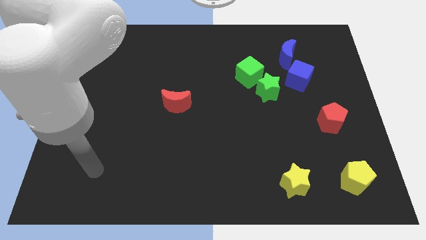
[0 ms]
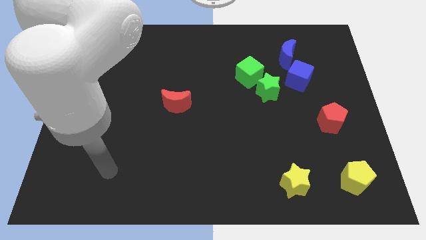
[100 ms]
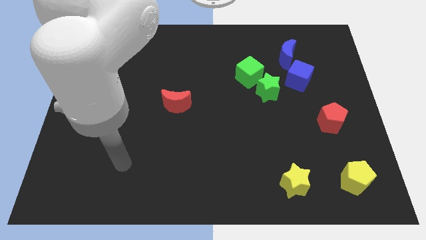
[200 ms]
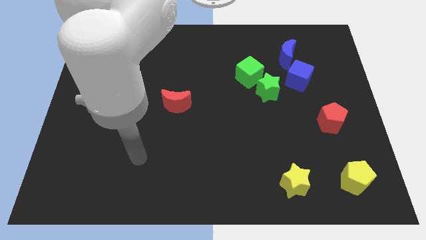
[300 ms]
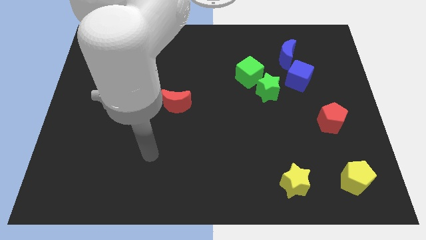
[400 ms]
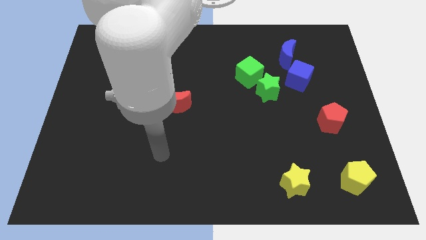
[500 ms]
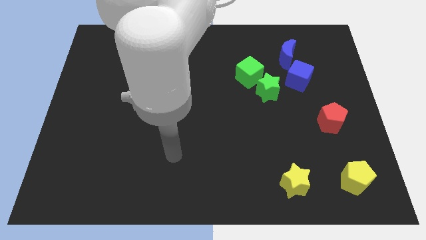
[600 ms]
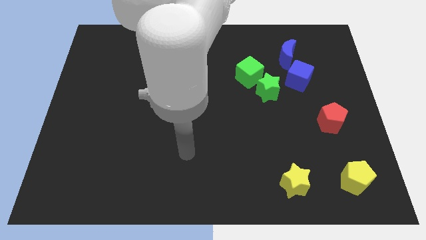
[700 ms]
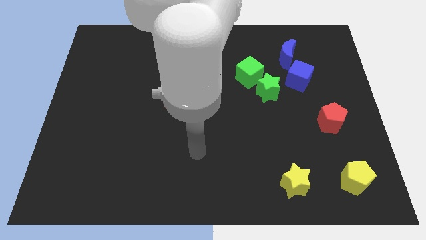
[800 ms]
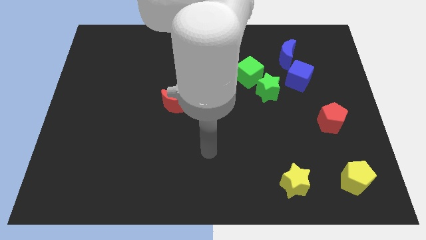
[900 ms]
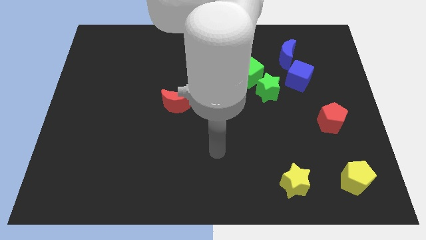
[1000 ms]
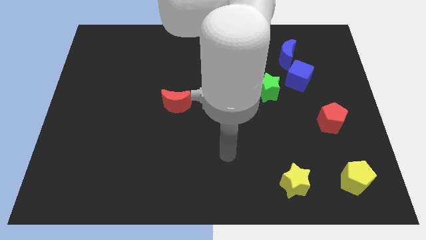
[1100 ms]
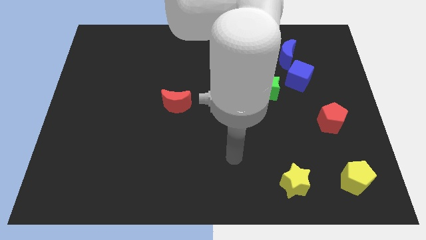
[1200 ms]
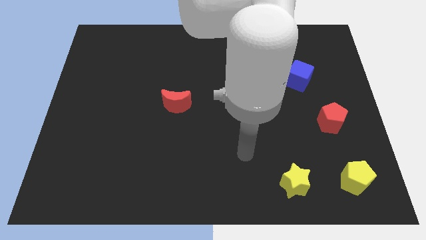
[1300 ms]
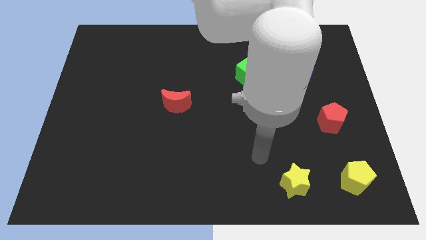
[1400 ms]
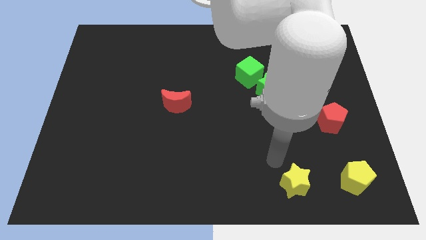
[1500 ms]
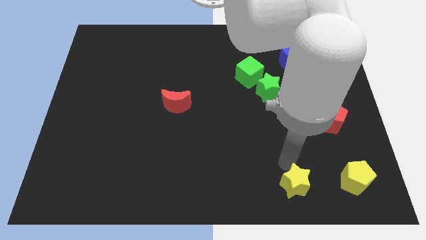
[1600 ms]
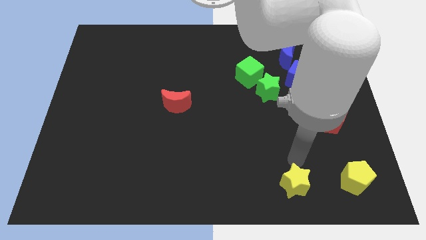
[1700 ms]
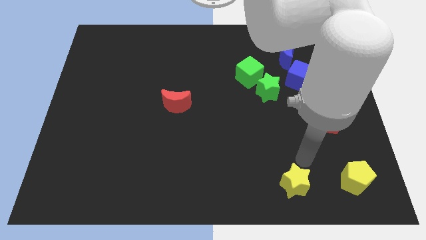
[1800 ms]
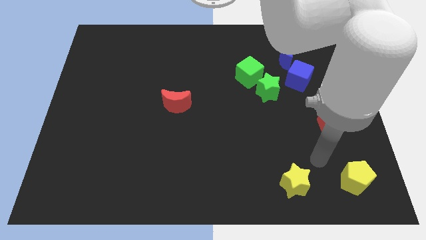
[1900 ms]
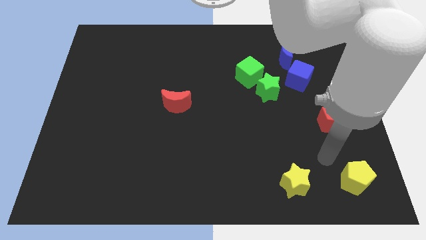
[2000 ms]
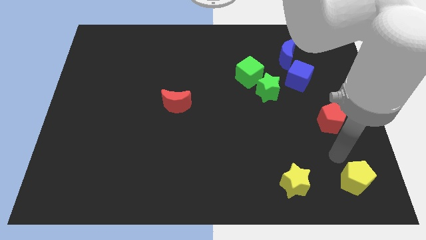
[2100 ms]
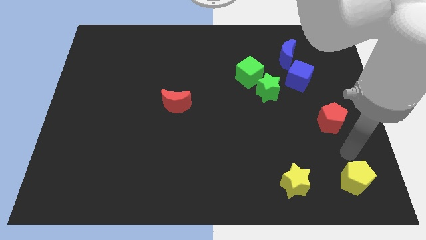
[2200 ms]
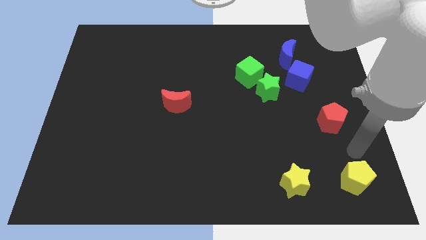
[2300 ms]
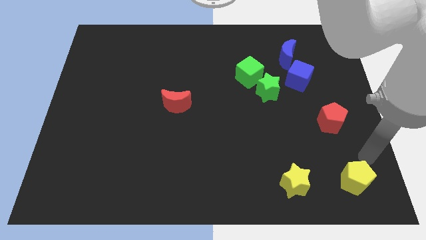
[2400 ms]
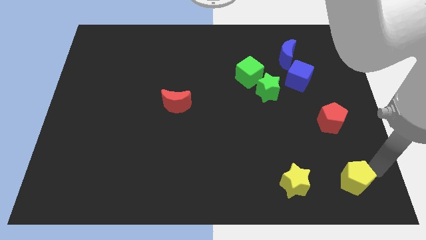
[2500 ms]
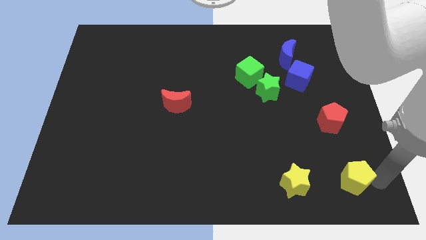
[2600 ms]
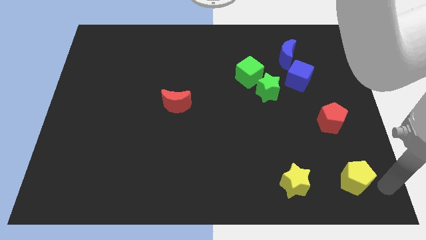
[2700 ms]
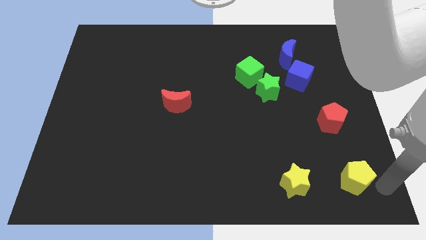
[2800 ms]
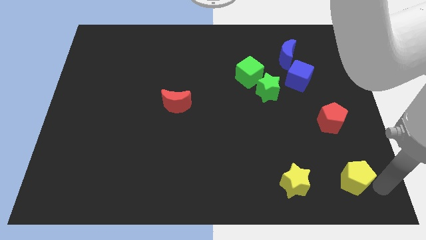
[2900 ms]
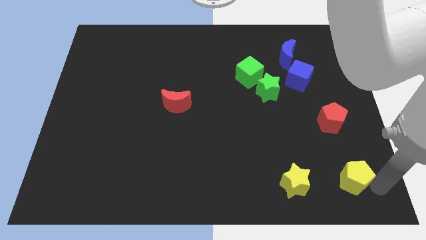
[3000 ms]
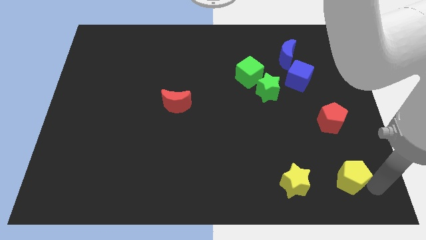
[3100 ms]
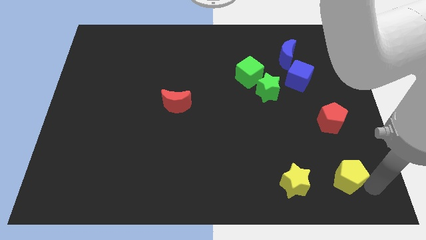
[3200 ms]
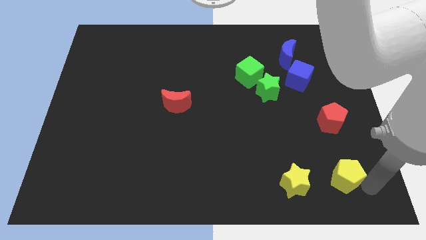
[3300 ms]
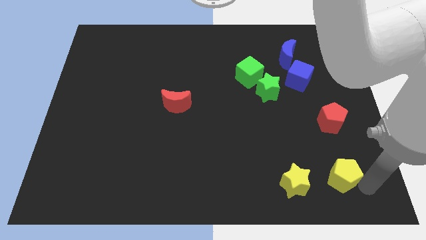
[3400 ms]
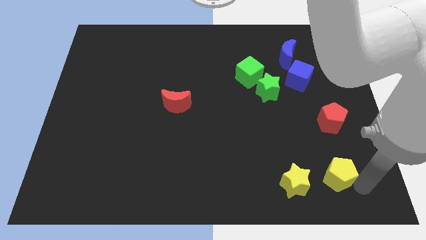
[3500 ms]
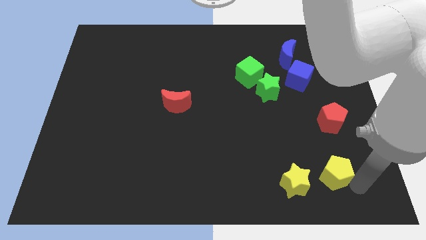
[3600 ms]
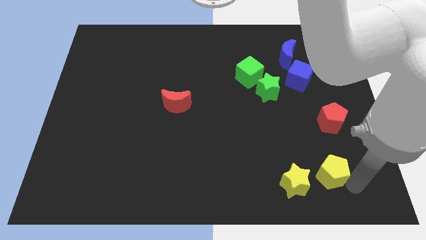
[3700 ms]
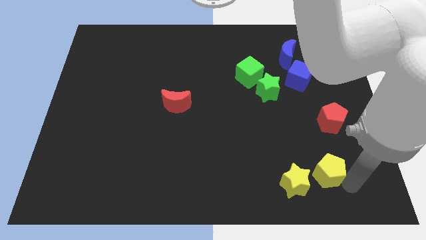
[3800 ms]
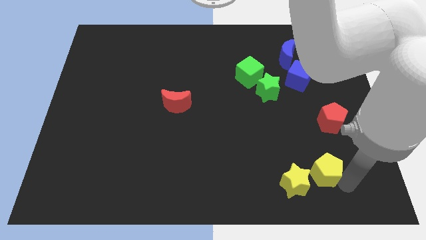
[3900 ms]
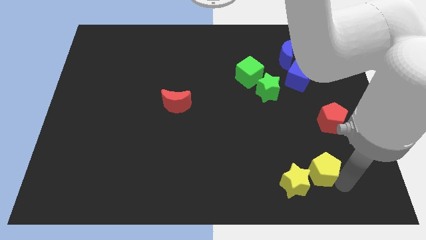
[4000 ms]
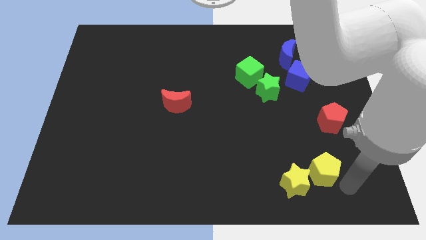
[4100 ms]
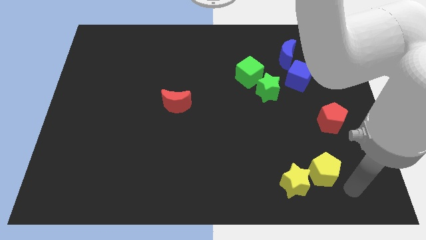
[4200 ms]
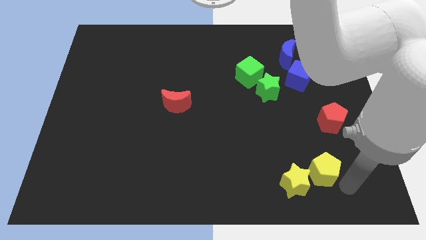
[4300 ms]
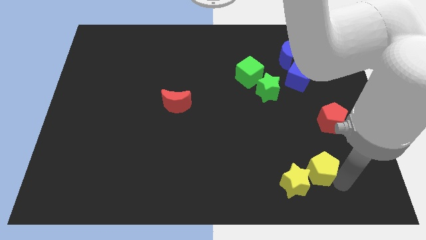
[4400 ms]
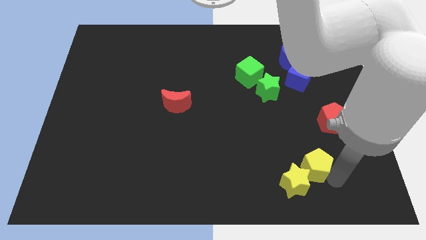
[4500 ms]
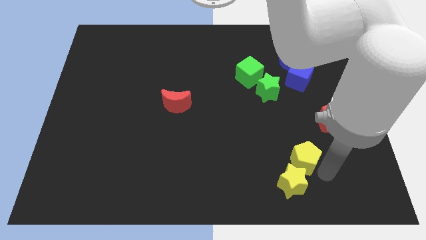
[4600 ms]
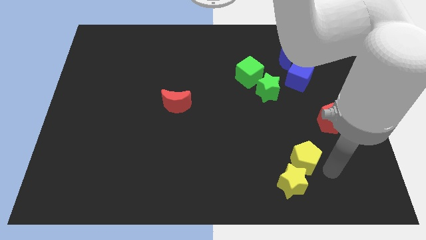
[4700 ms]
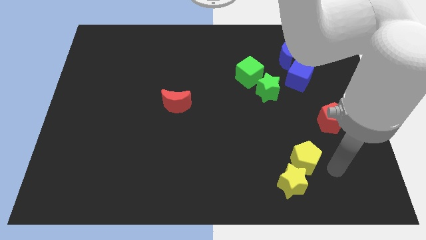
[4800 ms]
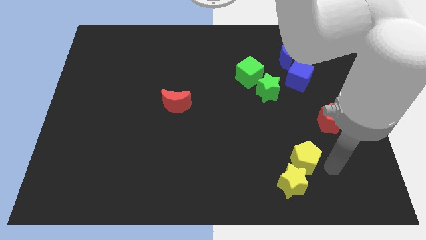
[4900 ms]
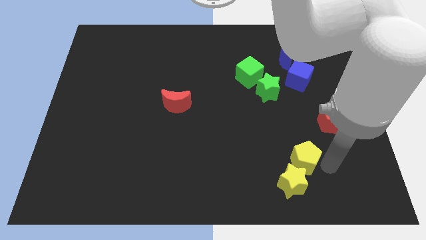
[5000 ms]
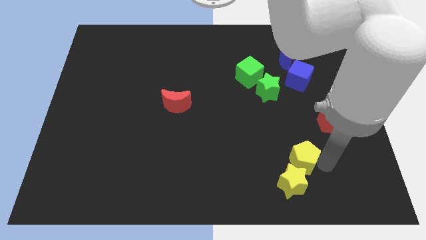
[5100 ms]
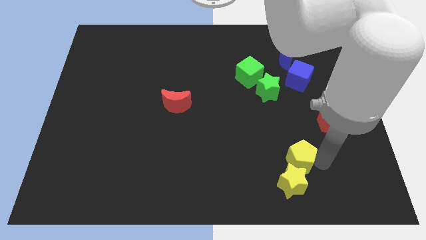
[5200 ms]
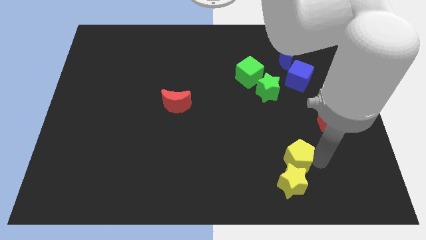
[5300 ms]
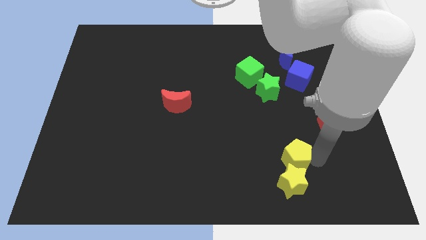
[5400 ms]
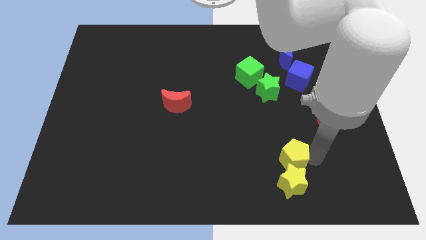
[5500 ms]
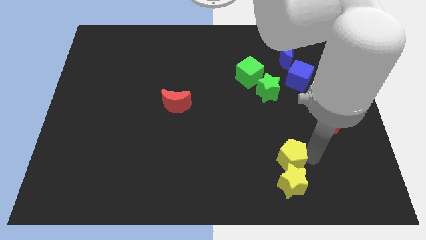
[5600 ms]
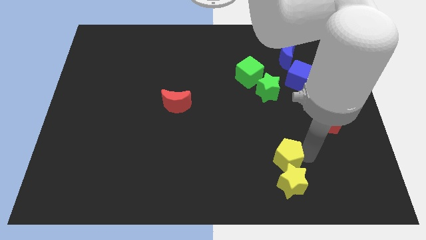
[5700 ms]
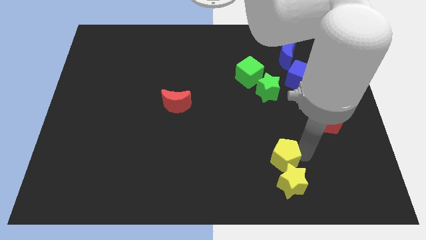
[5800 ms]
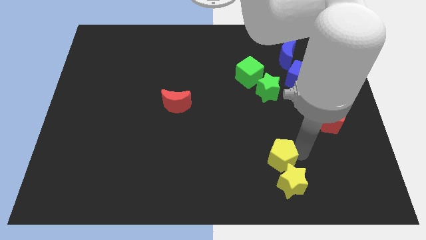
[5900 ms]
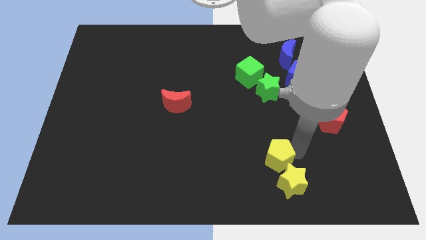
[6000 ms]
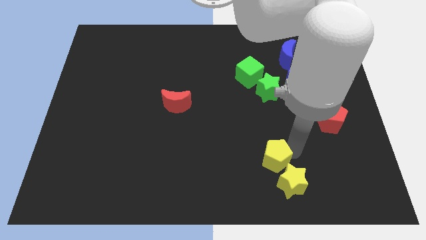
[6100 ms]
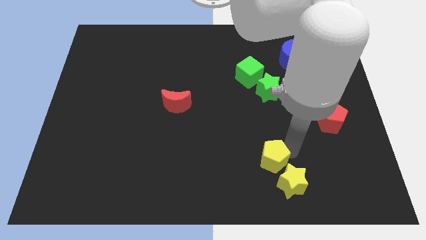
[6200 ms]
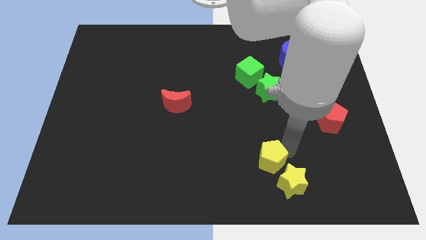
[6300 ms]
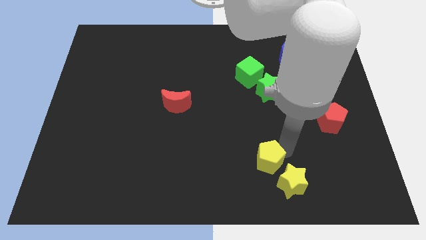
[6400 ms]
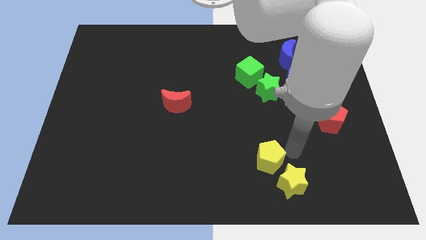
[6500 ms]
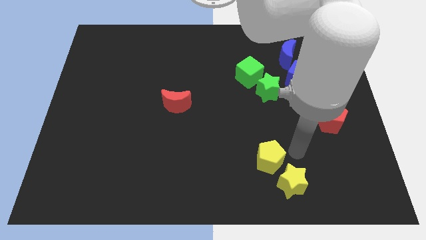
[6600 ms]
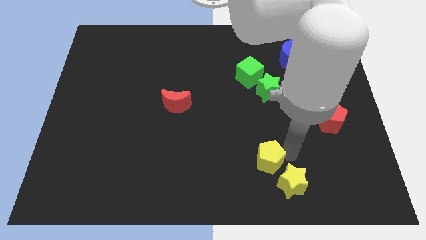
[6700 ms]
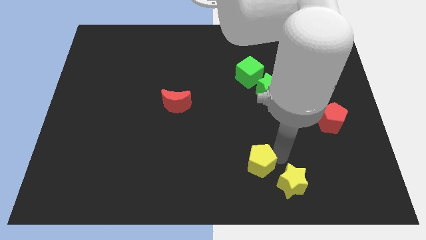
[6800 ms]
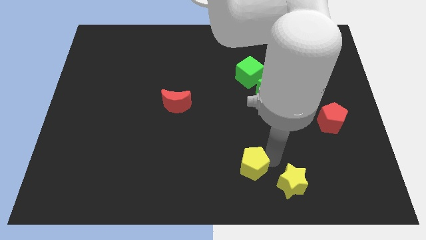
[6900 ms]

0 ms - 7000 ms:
move the yellow pentagon to the left

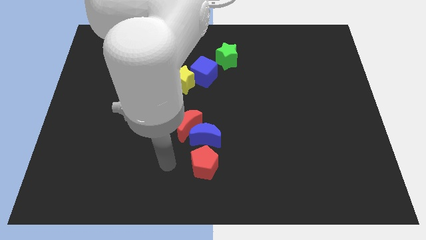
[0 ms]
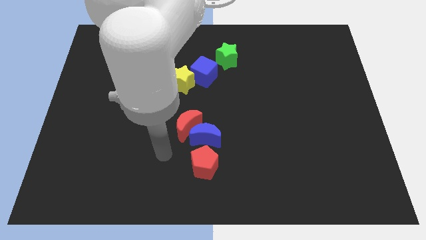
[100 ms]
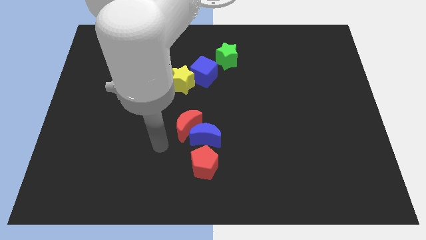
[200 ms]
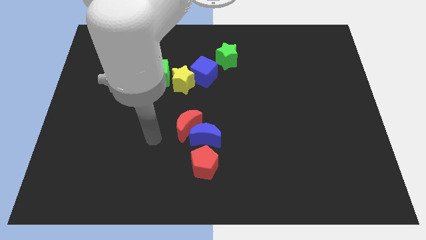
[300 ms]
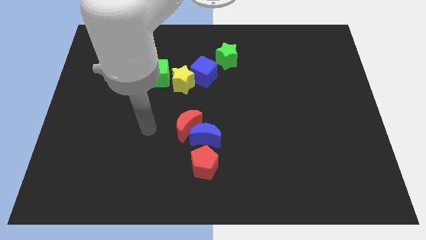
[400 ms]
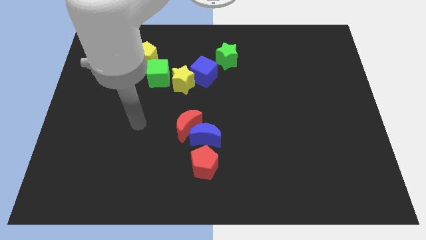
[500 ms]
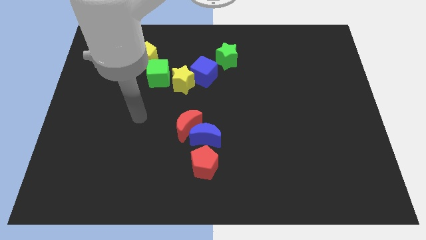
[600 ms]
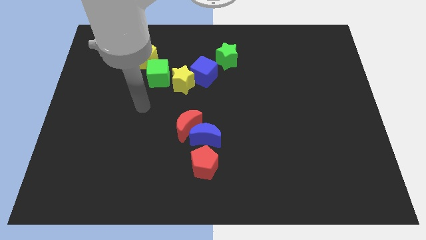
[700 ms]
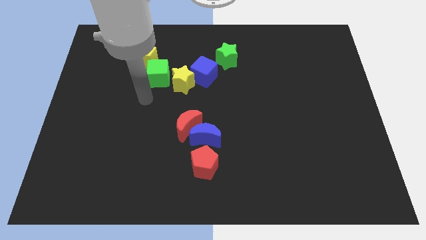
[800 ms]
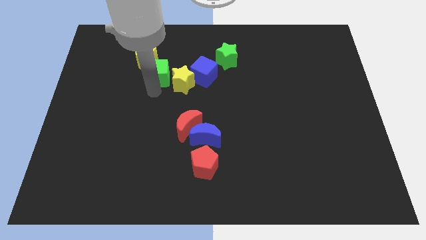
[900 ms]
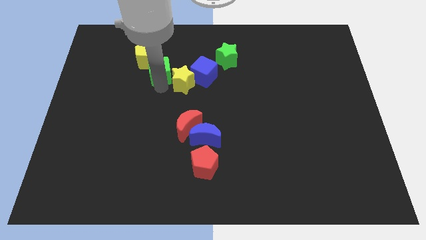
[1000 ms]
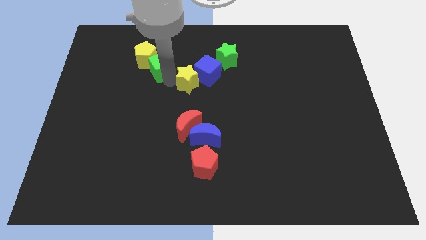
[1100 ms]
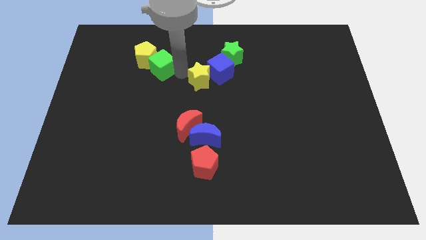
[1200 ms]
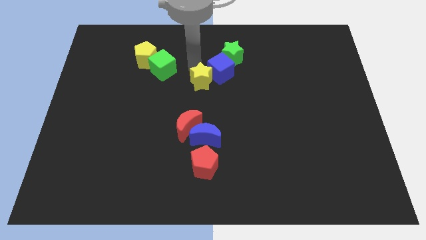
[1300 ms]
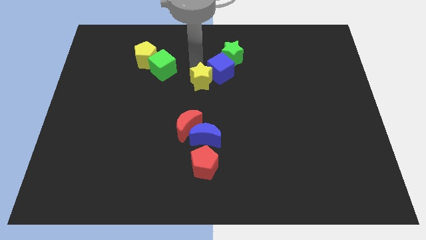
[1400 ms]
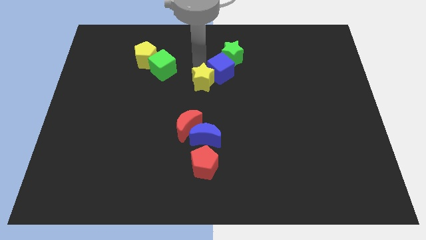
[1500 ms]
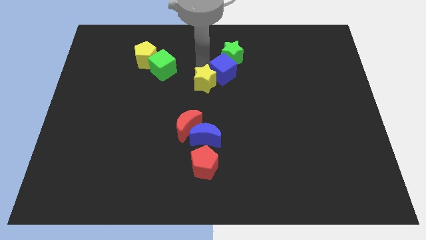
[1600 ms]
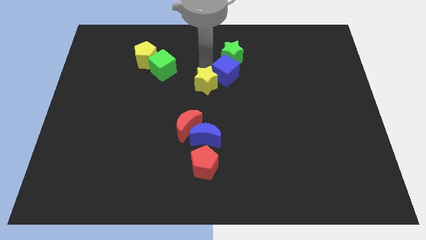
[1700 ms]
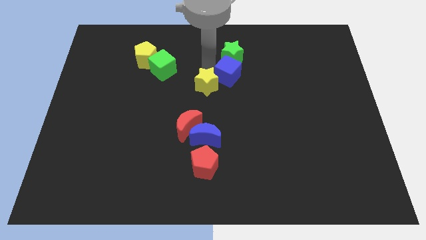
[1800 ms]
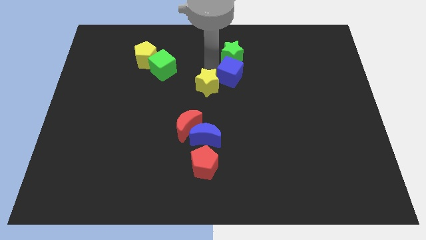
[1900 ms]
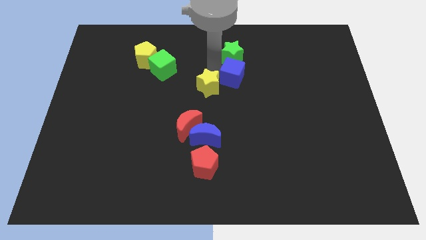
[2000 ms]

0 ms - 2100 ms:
slide the blue cube somewhat right
